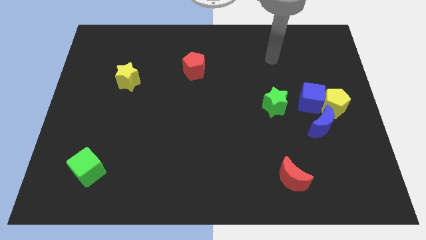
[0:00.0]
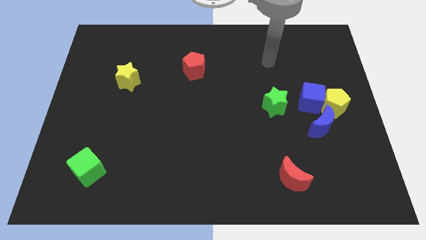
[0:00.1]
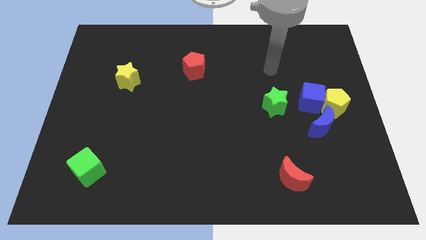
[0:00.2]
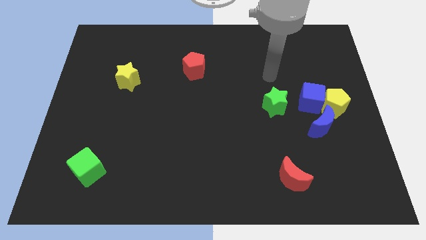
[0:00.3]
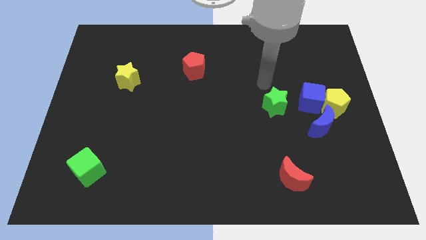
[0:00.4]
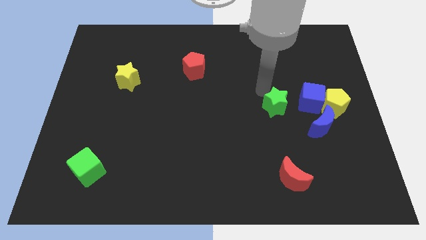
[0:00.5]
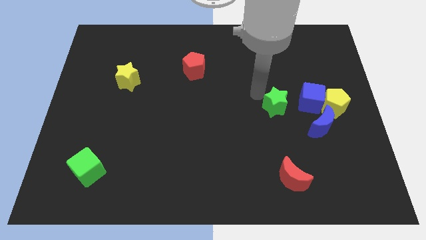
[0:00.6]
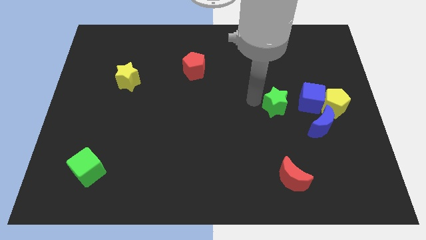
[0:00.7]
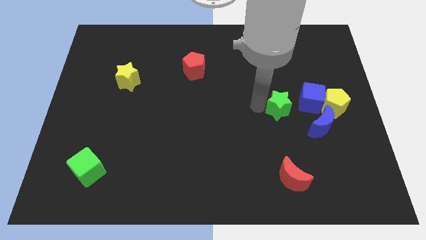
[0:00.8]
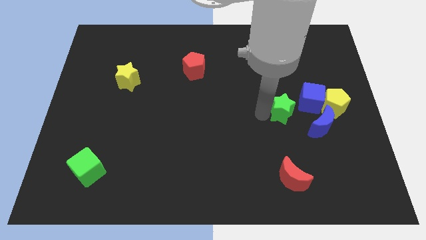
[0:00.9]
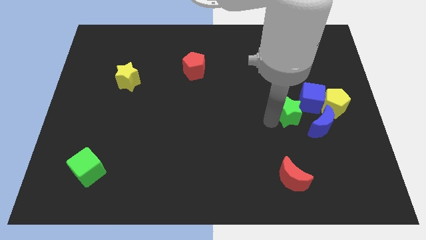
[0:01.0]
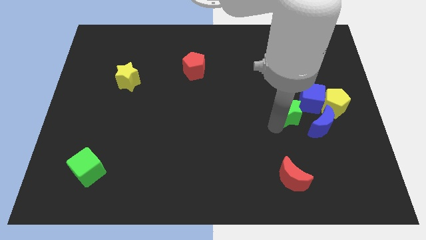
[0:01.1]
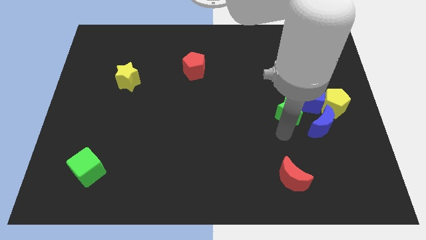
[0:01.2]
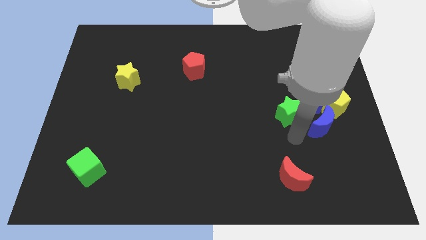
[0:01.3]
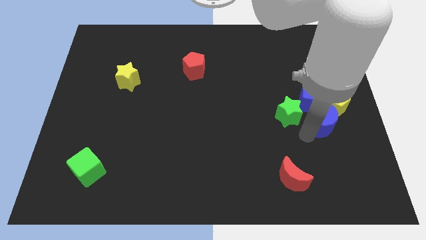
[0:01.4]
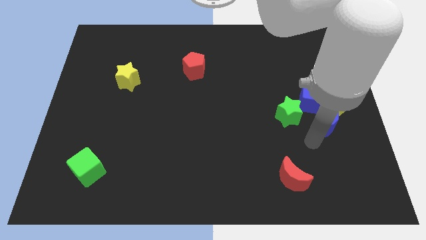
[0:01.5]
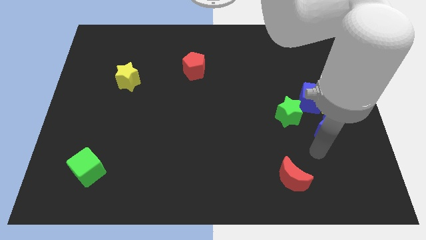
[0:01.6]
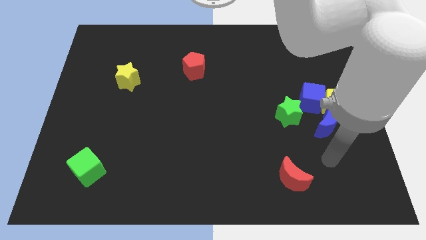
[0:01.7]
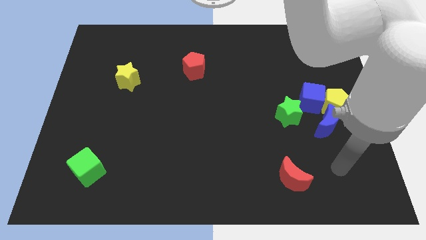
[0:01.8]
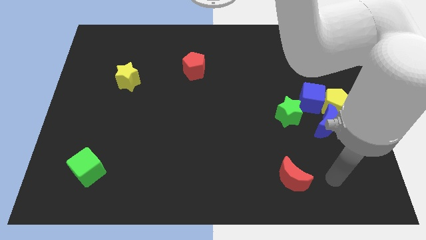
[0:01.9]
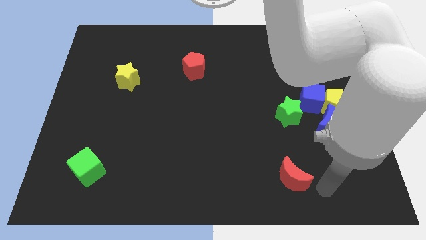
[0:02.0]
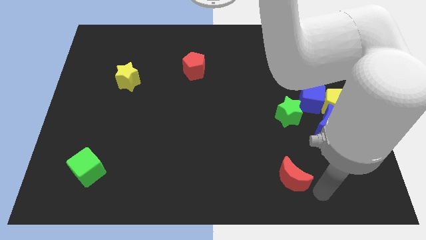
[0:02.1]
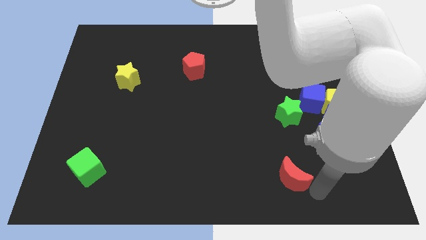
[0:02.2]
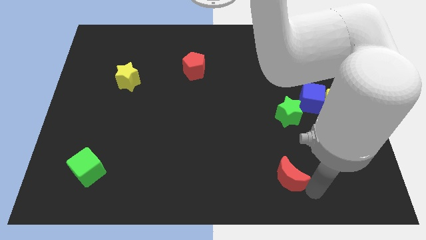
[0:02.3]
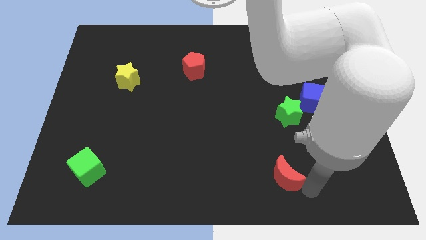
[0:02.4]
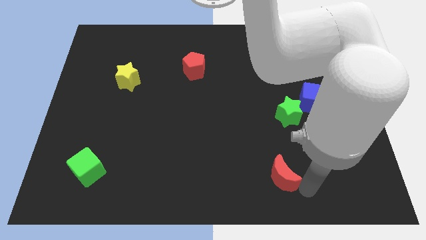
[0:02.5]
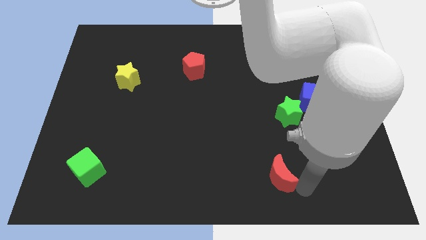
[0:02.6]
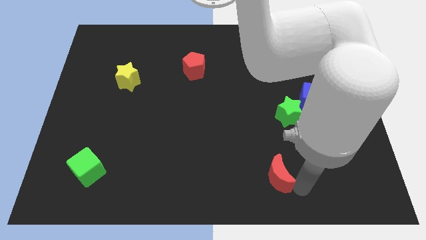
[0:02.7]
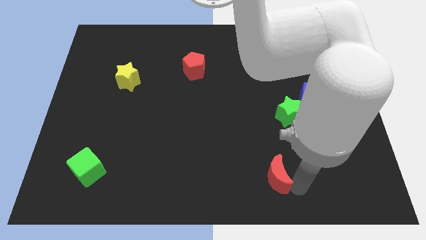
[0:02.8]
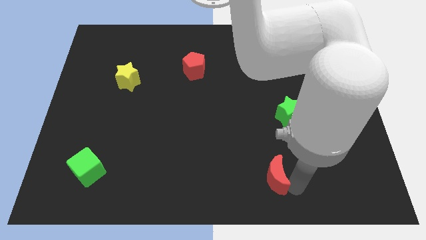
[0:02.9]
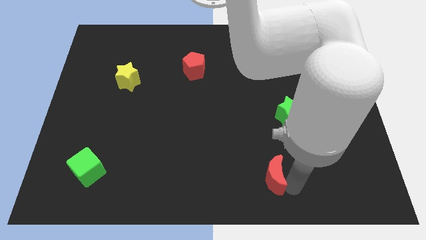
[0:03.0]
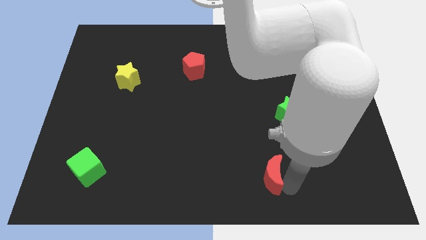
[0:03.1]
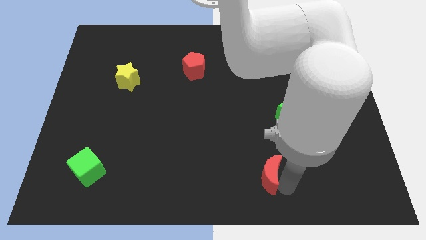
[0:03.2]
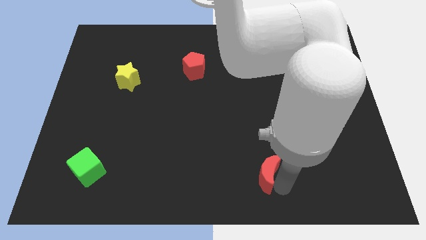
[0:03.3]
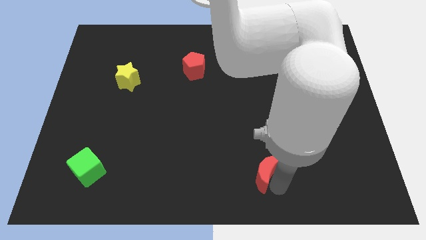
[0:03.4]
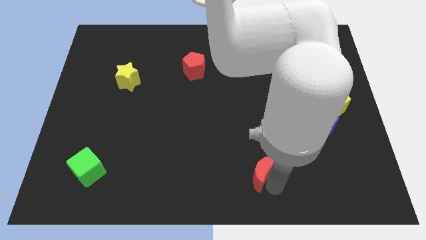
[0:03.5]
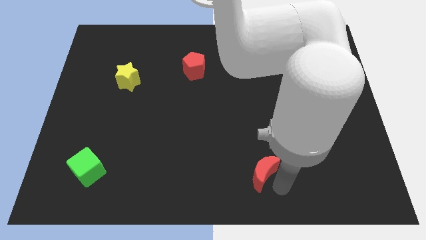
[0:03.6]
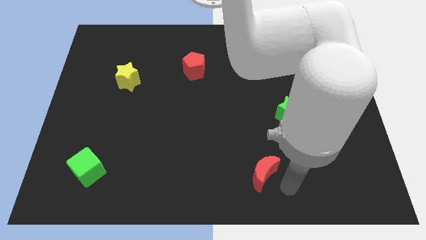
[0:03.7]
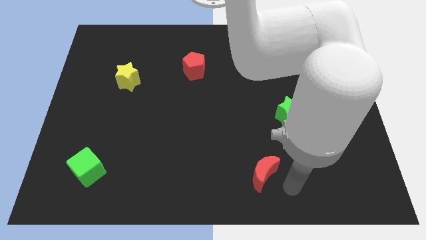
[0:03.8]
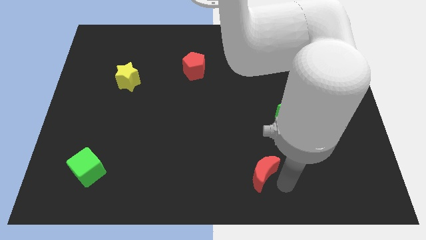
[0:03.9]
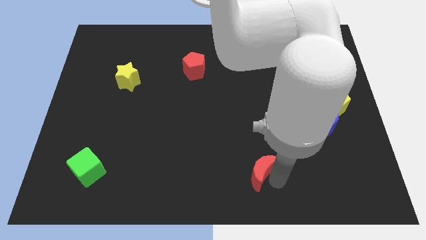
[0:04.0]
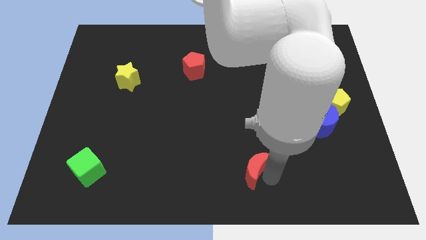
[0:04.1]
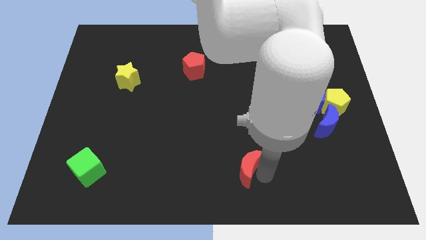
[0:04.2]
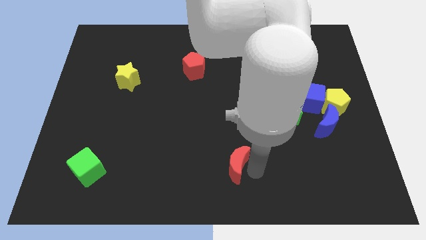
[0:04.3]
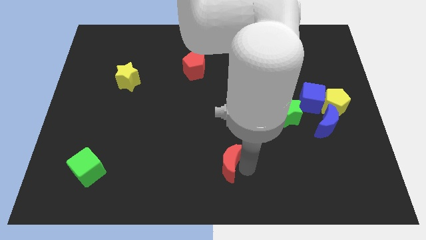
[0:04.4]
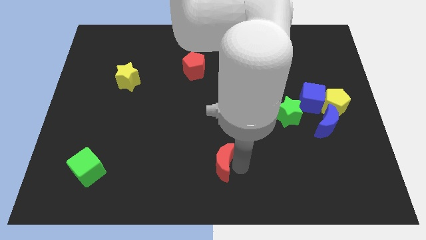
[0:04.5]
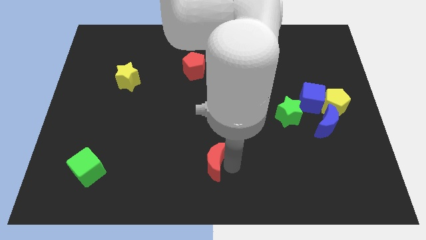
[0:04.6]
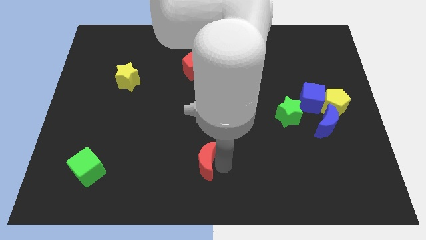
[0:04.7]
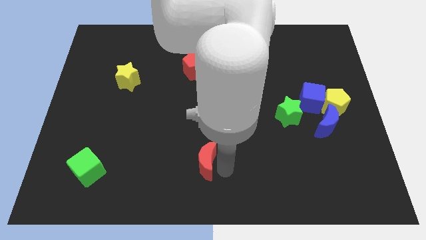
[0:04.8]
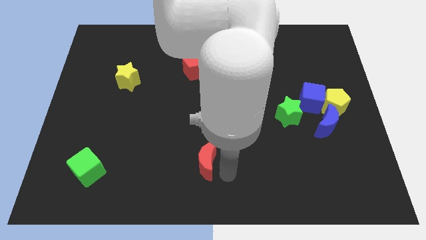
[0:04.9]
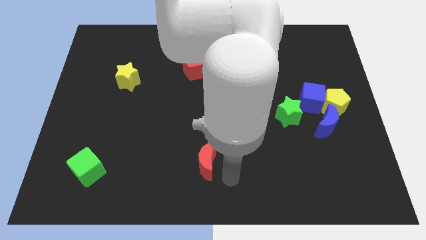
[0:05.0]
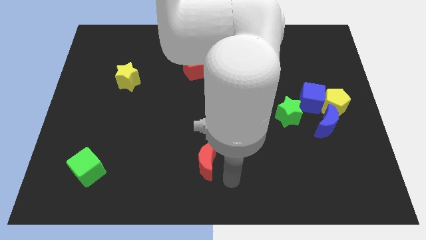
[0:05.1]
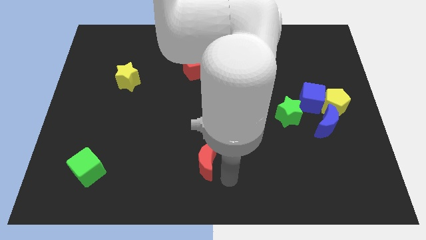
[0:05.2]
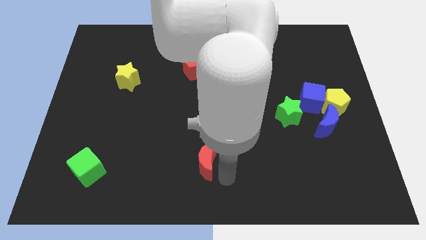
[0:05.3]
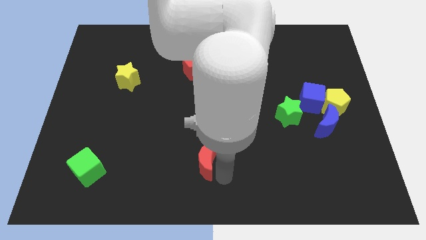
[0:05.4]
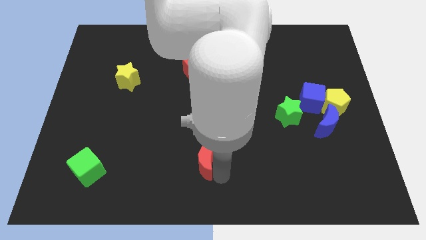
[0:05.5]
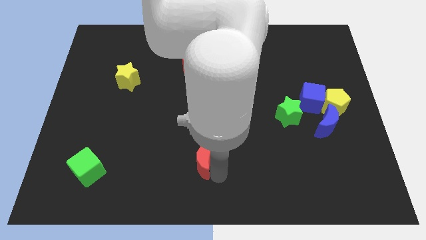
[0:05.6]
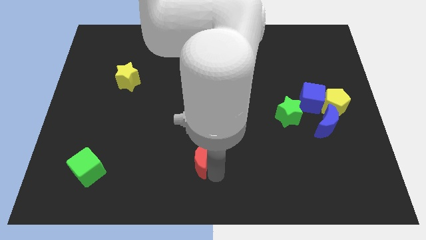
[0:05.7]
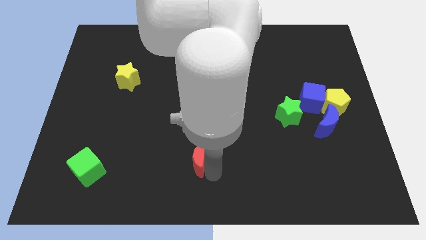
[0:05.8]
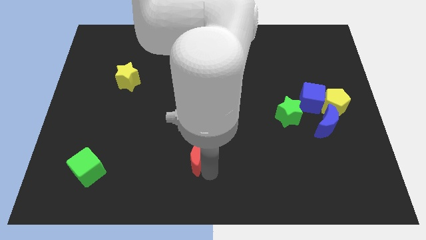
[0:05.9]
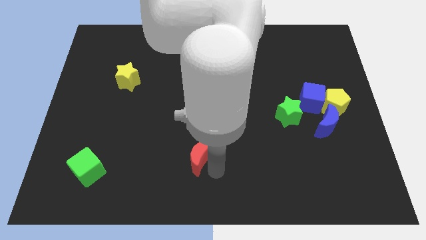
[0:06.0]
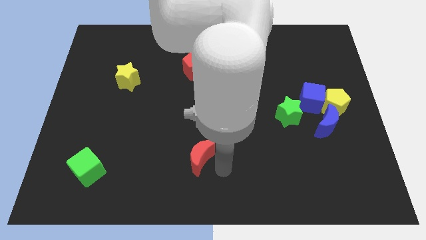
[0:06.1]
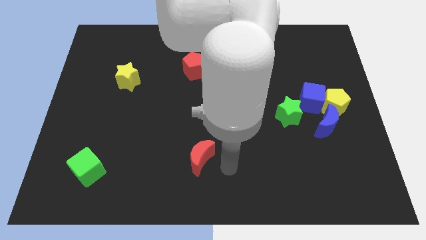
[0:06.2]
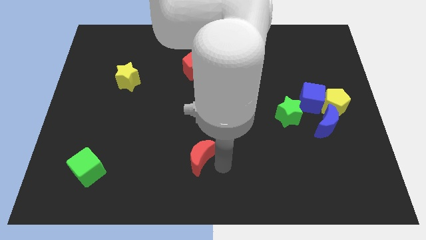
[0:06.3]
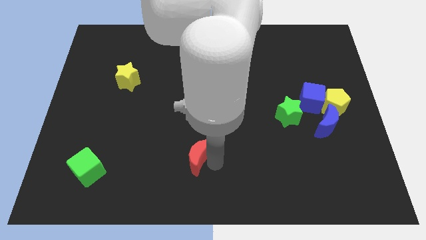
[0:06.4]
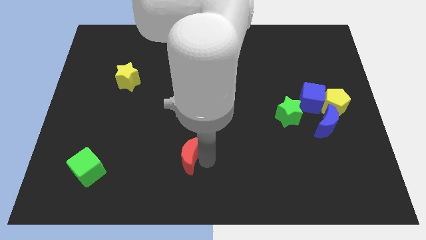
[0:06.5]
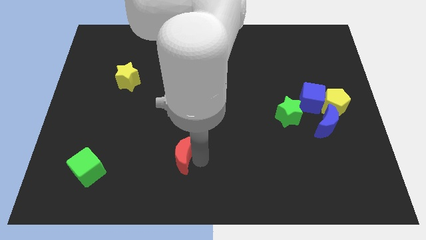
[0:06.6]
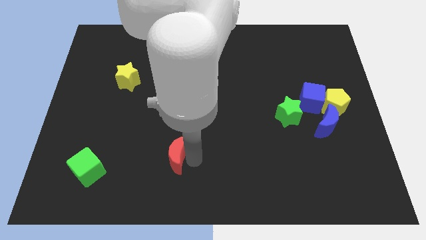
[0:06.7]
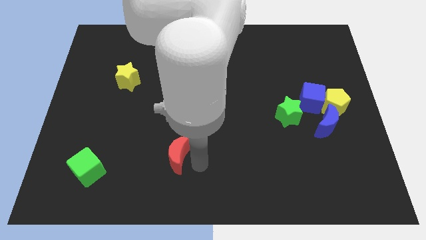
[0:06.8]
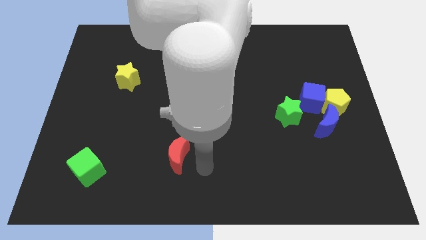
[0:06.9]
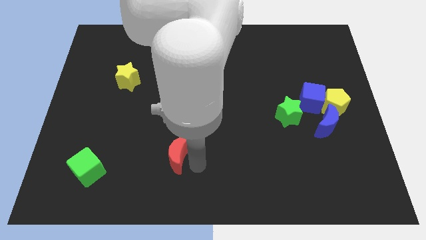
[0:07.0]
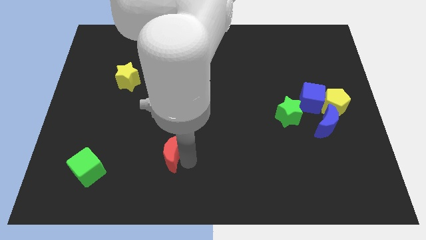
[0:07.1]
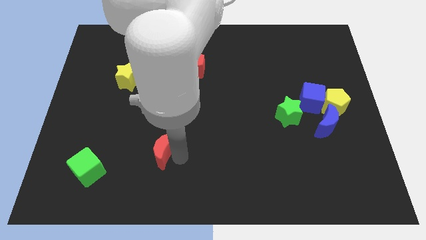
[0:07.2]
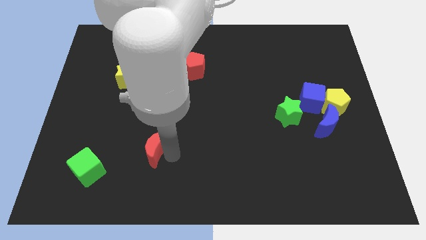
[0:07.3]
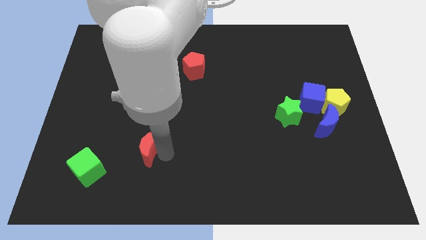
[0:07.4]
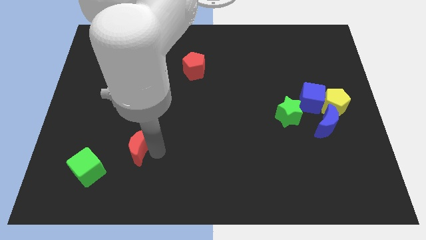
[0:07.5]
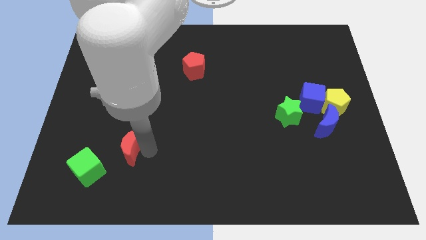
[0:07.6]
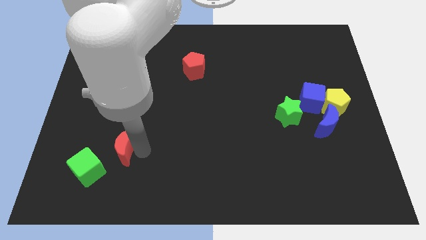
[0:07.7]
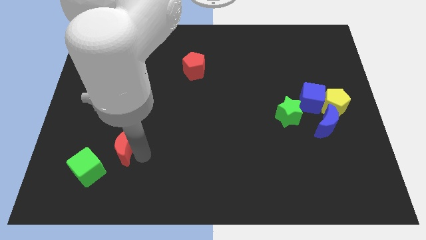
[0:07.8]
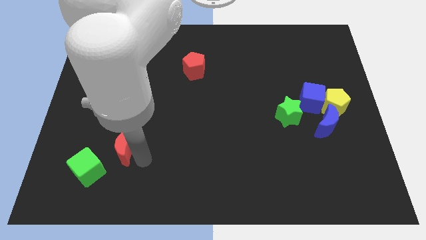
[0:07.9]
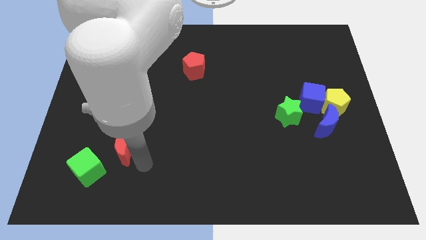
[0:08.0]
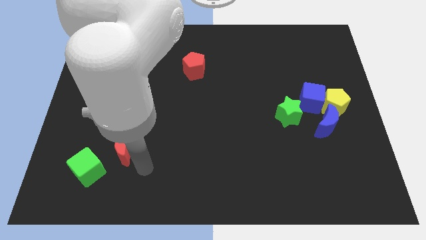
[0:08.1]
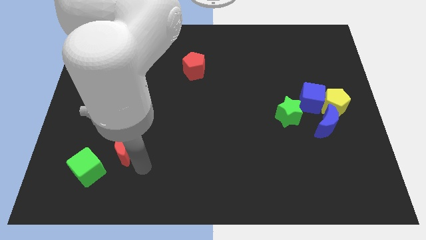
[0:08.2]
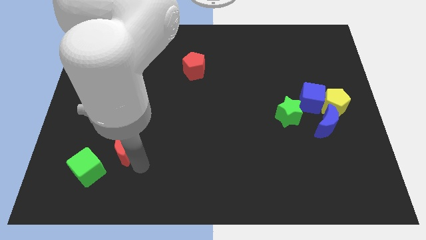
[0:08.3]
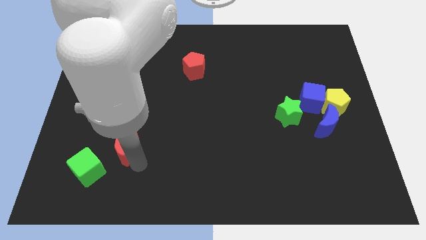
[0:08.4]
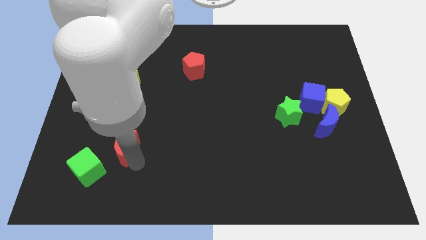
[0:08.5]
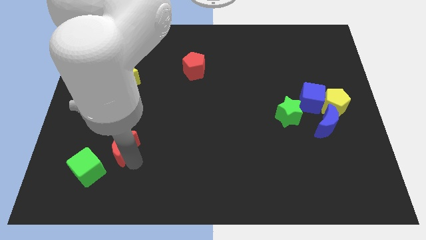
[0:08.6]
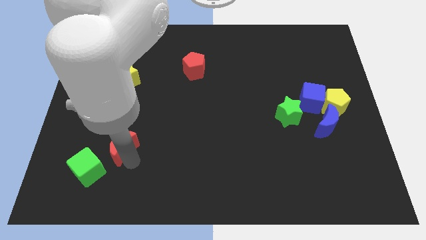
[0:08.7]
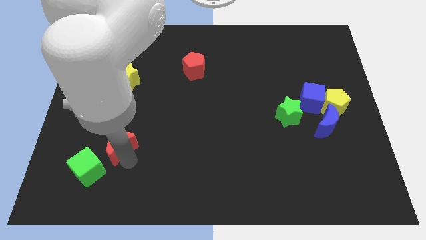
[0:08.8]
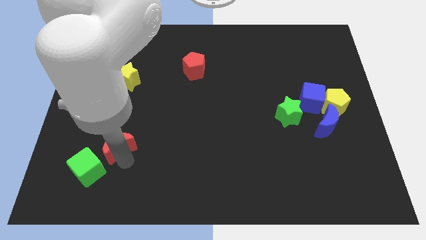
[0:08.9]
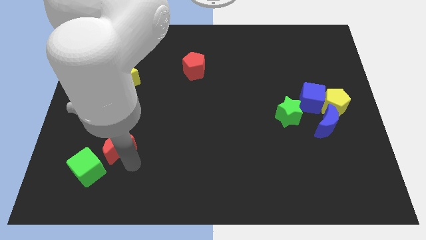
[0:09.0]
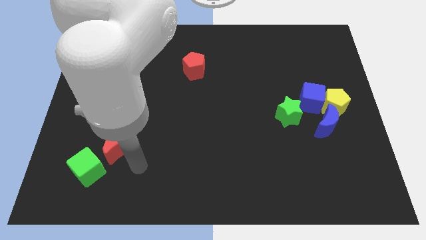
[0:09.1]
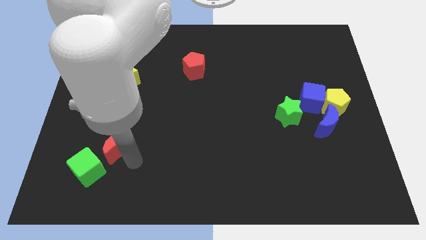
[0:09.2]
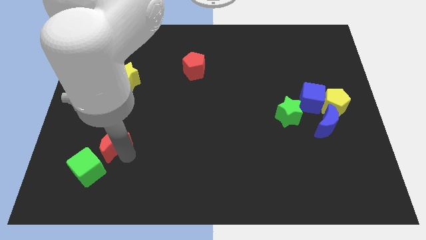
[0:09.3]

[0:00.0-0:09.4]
slide the red moon to the top of the green cube
